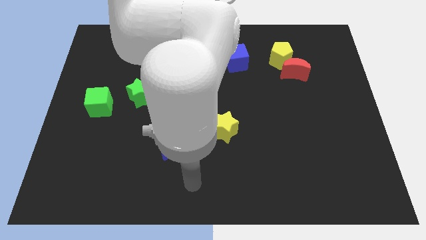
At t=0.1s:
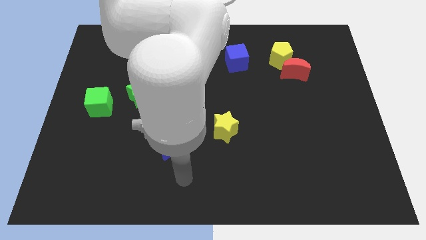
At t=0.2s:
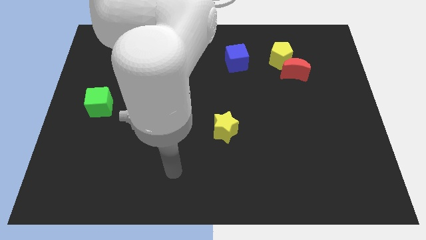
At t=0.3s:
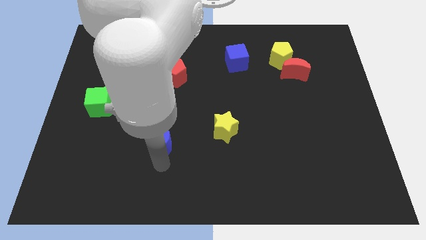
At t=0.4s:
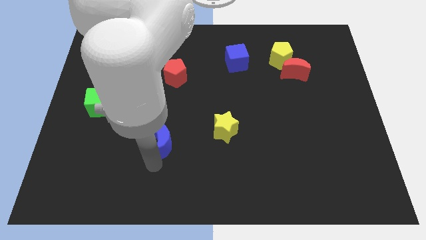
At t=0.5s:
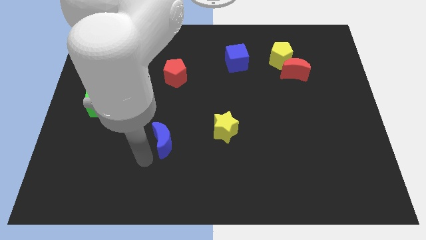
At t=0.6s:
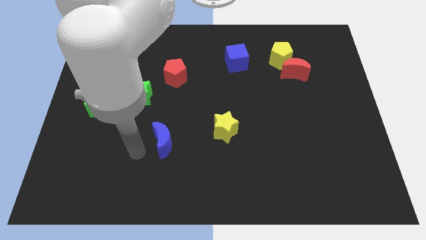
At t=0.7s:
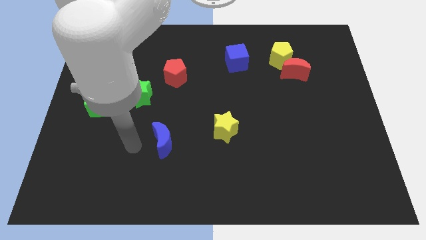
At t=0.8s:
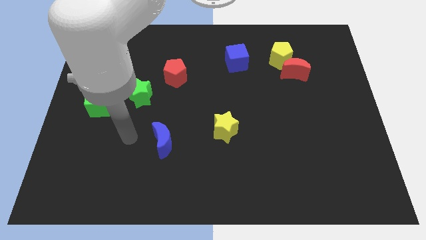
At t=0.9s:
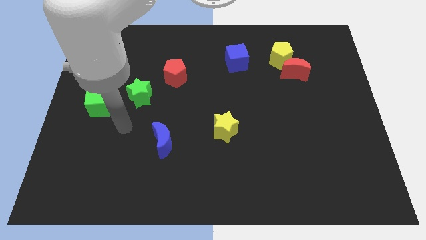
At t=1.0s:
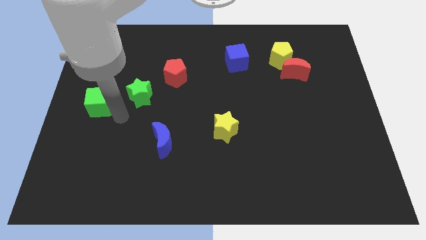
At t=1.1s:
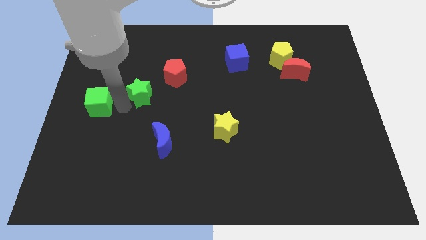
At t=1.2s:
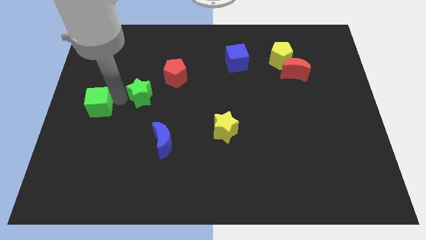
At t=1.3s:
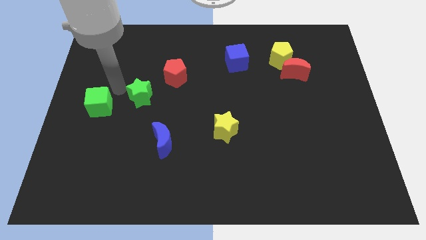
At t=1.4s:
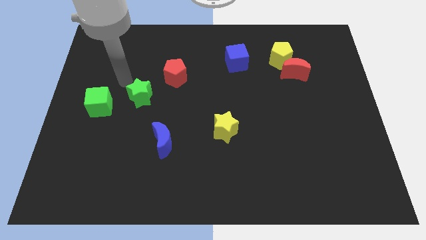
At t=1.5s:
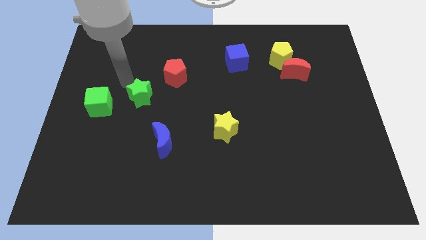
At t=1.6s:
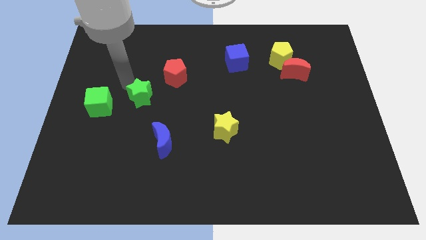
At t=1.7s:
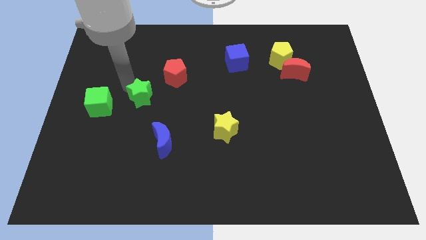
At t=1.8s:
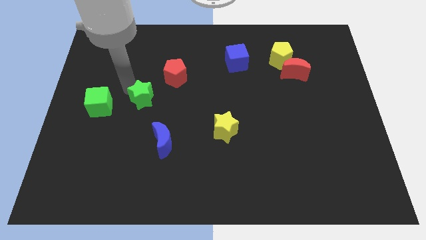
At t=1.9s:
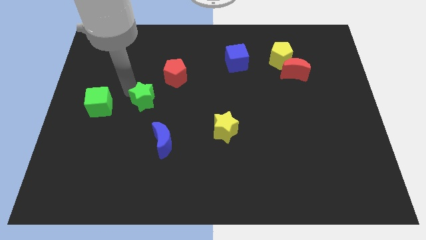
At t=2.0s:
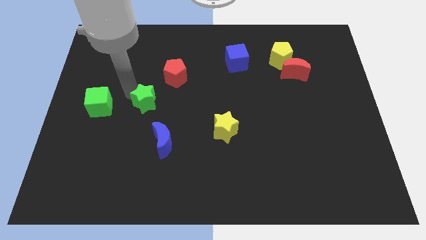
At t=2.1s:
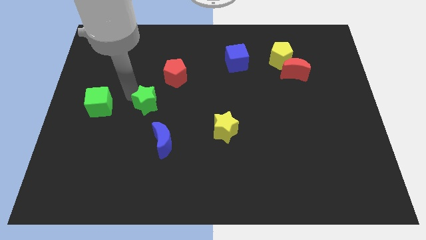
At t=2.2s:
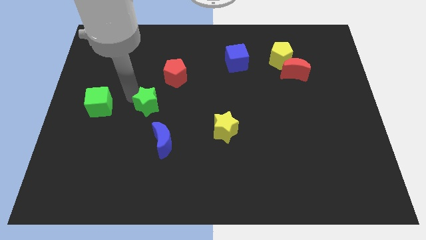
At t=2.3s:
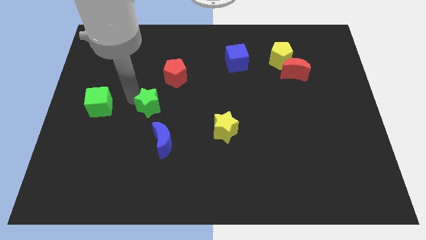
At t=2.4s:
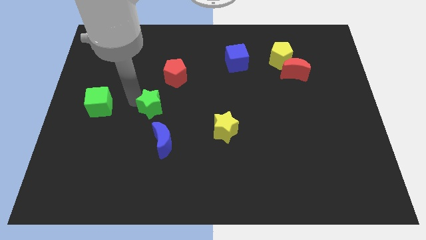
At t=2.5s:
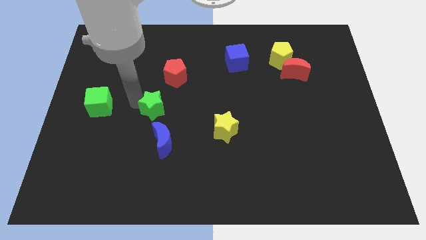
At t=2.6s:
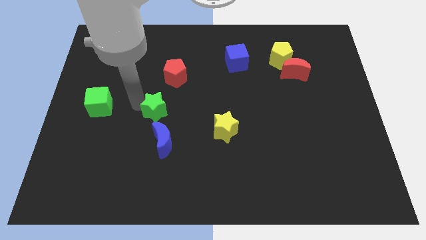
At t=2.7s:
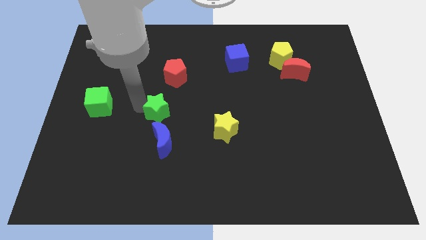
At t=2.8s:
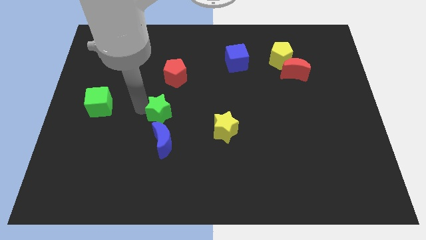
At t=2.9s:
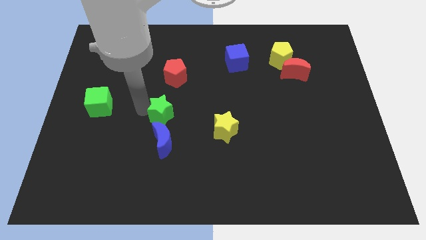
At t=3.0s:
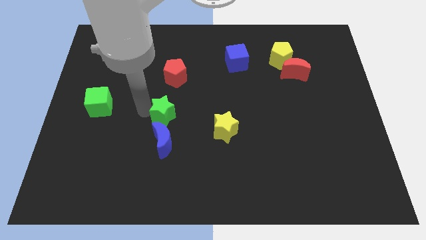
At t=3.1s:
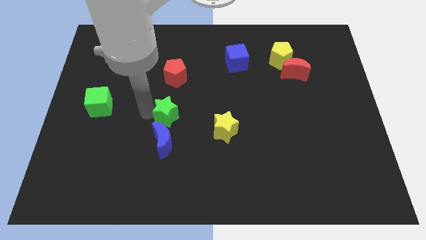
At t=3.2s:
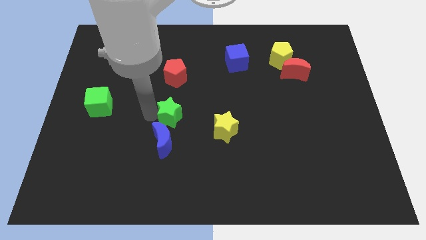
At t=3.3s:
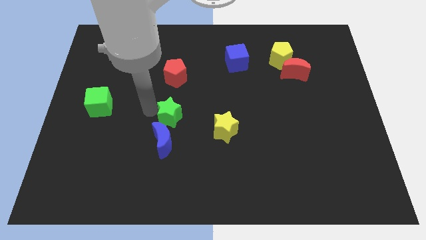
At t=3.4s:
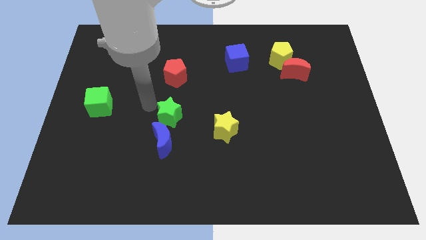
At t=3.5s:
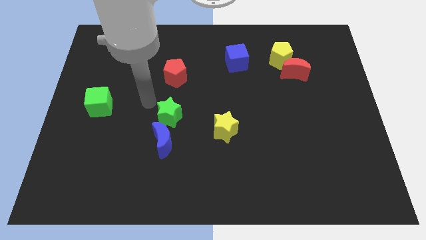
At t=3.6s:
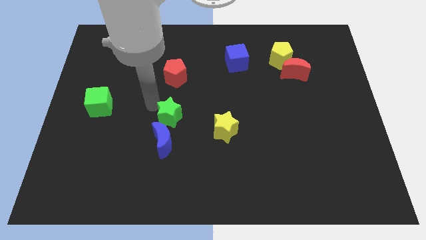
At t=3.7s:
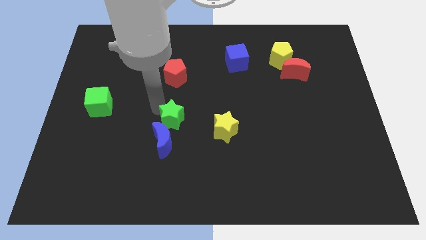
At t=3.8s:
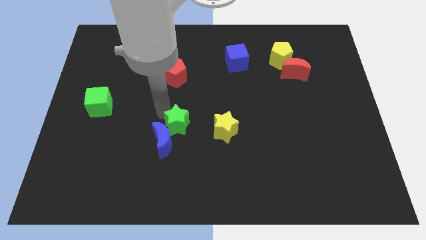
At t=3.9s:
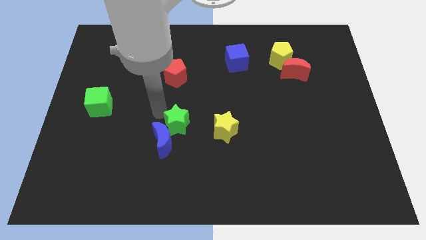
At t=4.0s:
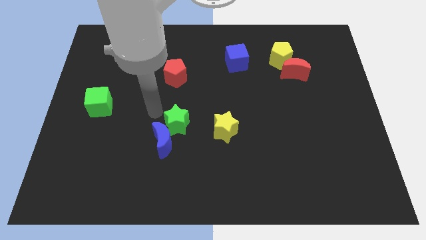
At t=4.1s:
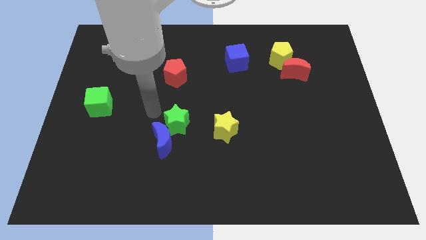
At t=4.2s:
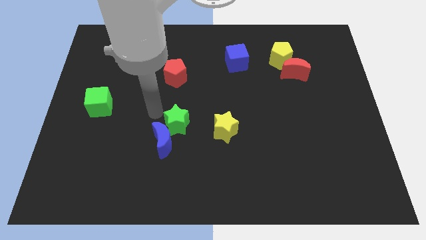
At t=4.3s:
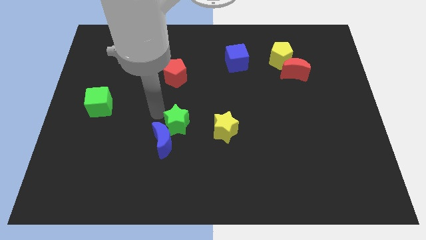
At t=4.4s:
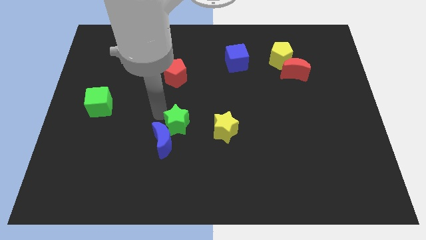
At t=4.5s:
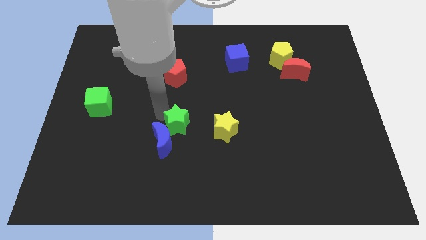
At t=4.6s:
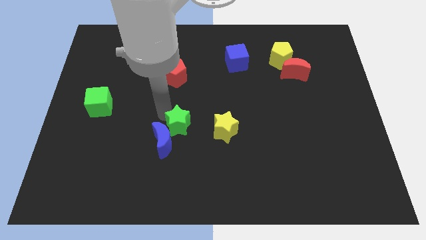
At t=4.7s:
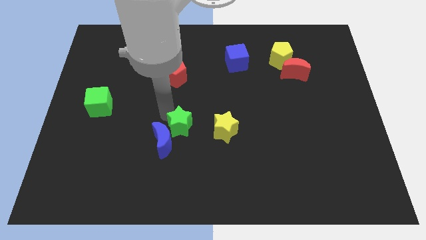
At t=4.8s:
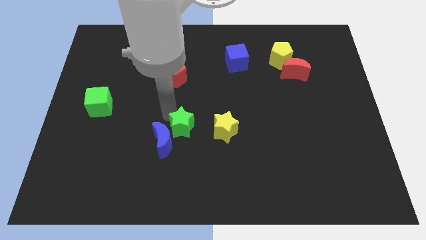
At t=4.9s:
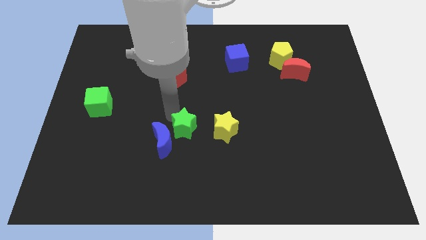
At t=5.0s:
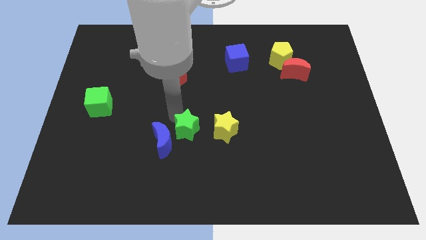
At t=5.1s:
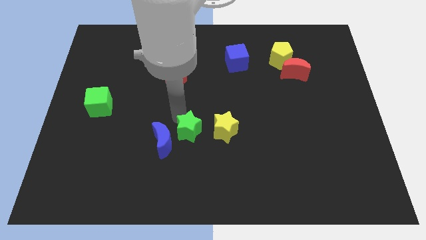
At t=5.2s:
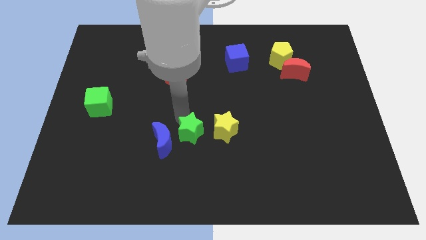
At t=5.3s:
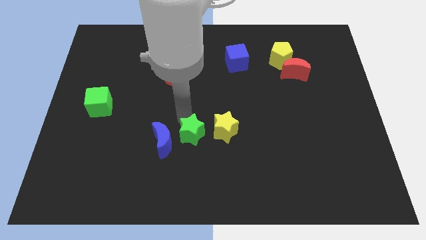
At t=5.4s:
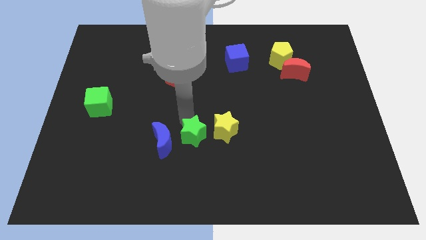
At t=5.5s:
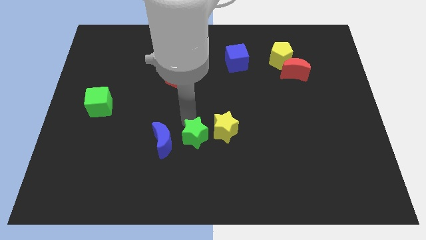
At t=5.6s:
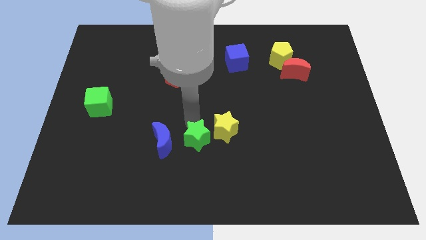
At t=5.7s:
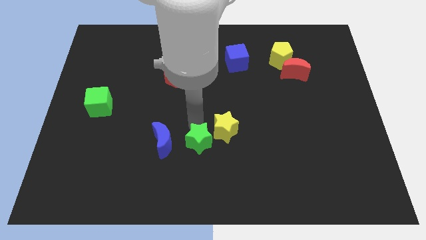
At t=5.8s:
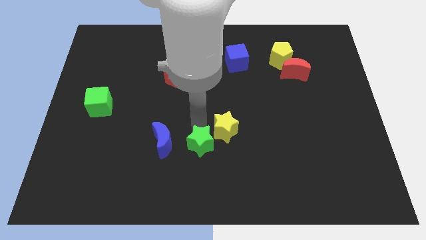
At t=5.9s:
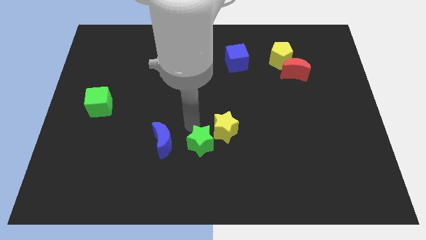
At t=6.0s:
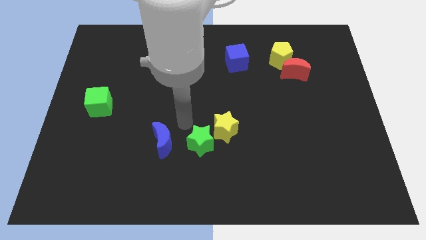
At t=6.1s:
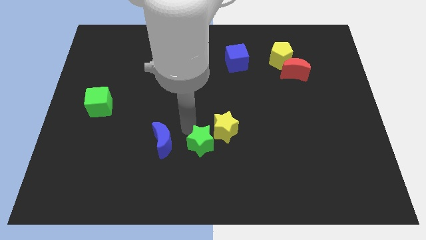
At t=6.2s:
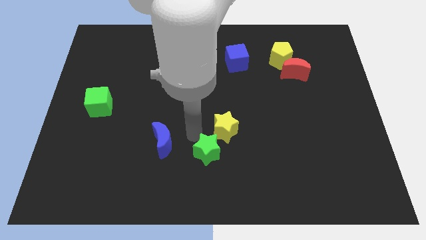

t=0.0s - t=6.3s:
push the green star to the bottom side of the yellow star

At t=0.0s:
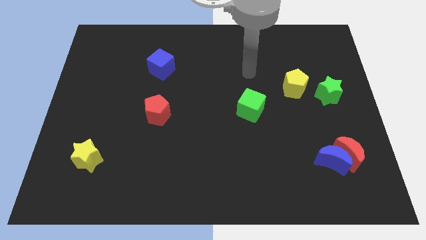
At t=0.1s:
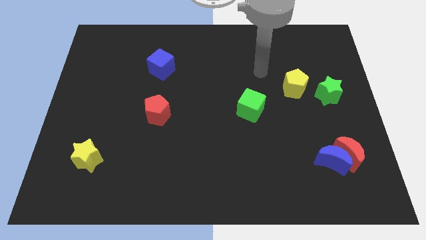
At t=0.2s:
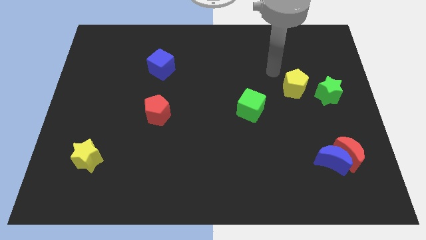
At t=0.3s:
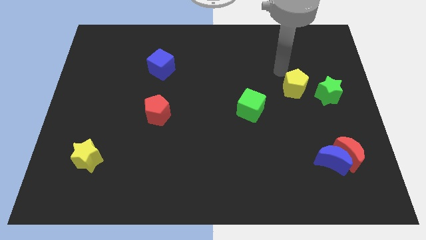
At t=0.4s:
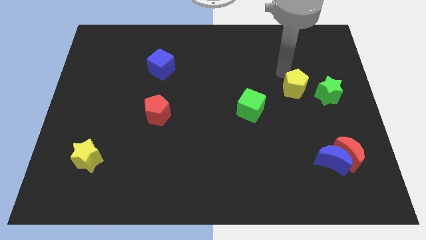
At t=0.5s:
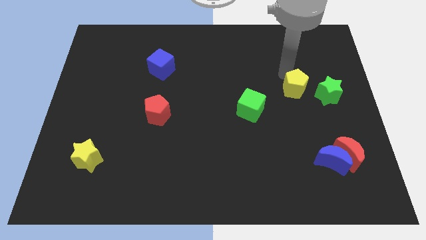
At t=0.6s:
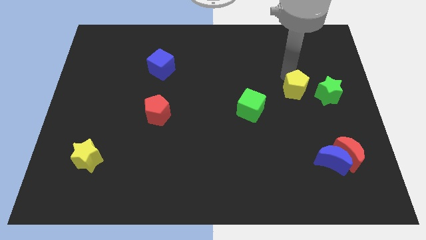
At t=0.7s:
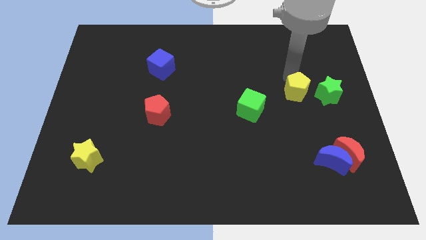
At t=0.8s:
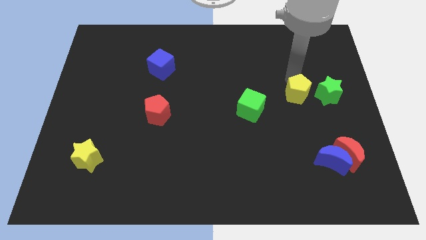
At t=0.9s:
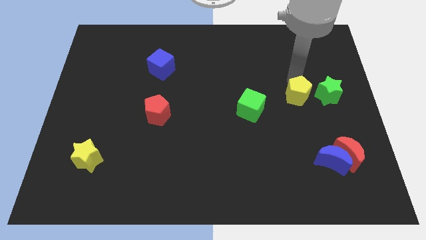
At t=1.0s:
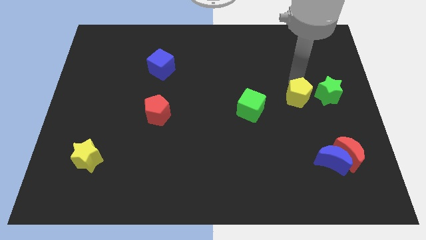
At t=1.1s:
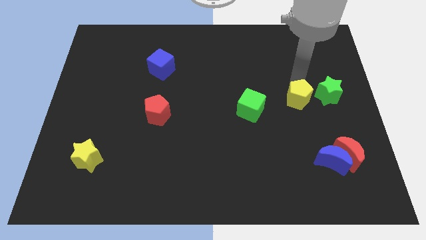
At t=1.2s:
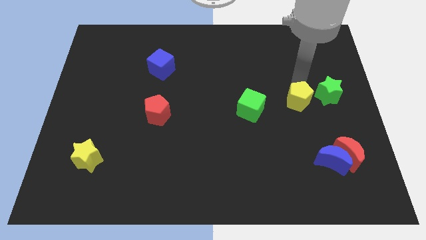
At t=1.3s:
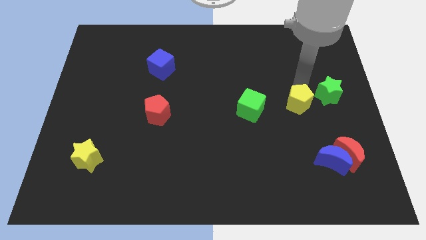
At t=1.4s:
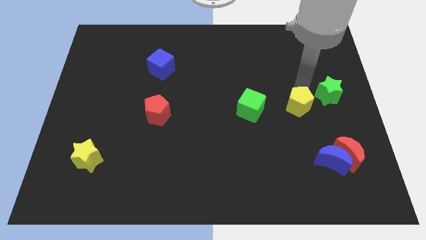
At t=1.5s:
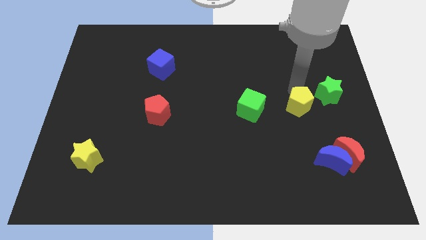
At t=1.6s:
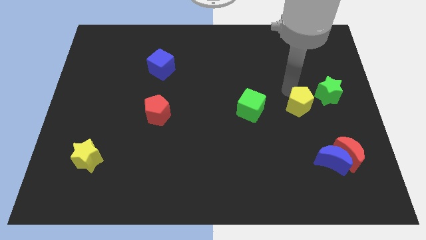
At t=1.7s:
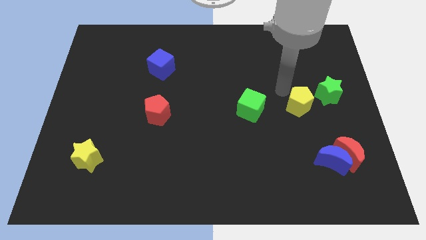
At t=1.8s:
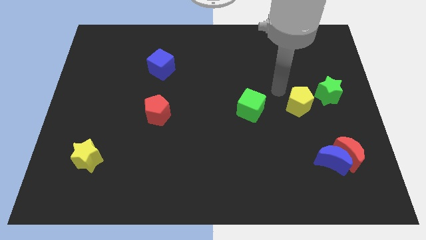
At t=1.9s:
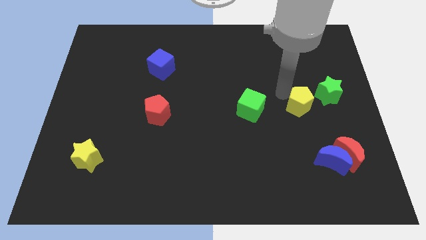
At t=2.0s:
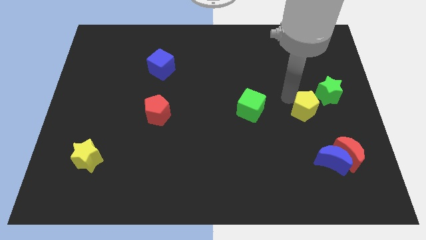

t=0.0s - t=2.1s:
put the yellow pentagon to the top side of the blue moon
